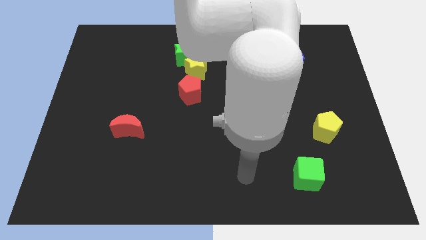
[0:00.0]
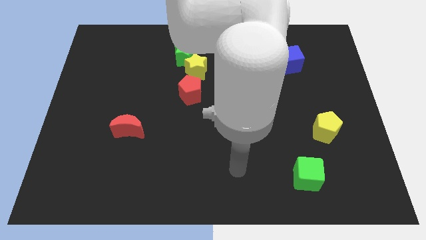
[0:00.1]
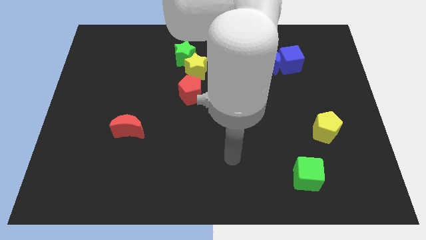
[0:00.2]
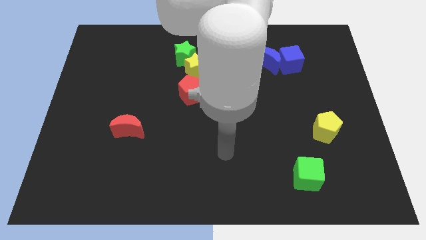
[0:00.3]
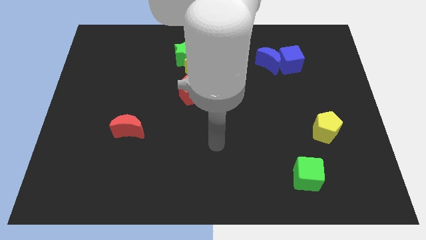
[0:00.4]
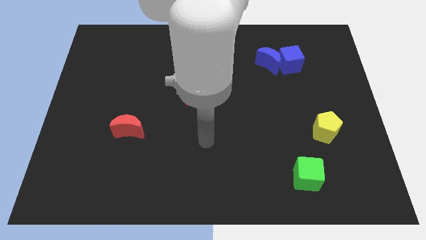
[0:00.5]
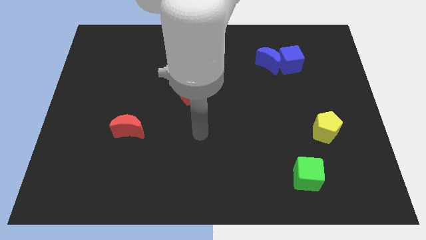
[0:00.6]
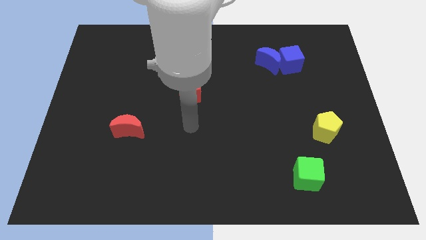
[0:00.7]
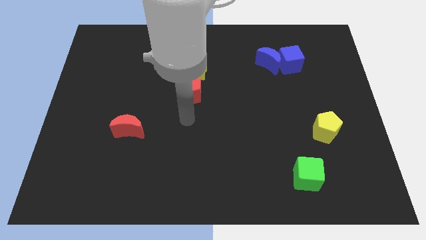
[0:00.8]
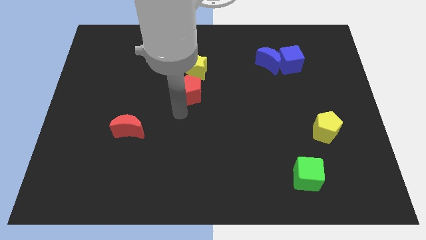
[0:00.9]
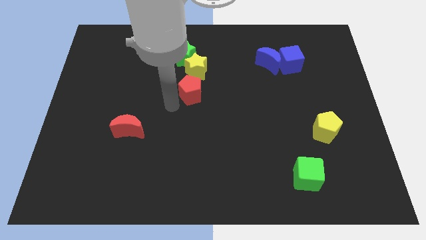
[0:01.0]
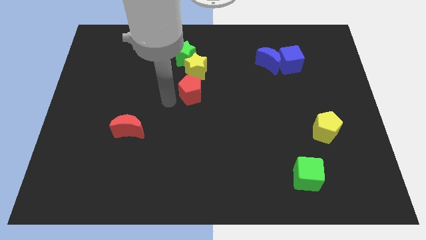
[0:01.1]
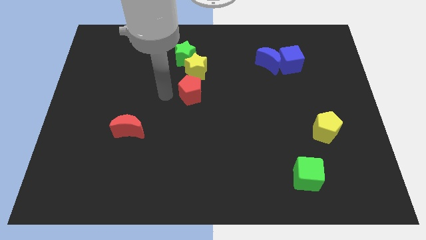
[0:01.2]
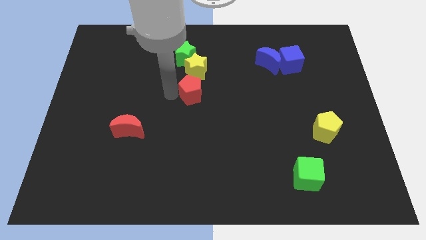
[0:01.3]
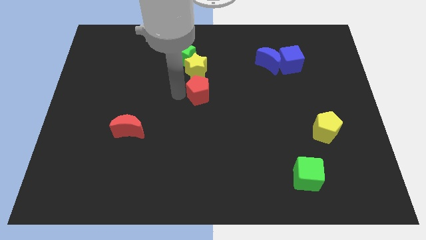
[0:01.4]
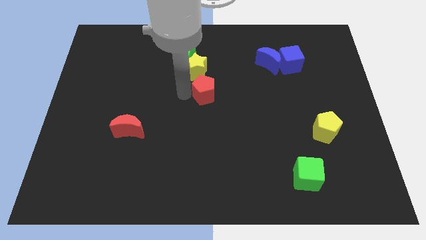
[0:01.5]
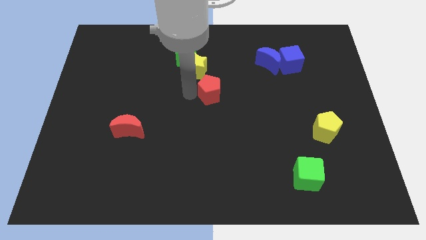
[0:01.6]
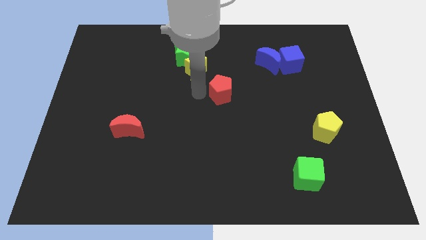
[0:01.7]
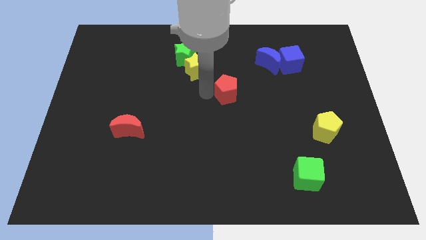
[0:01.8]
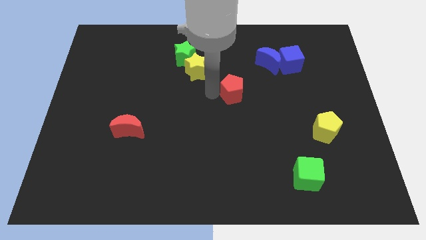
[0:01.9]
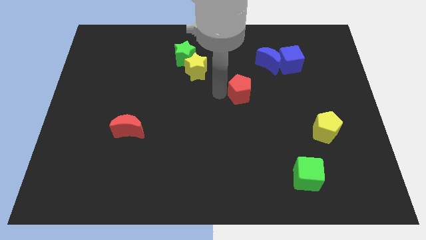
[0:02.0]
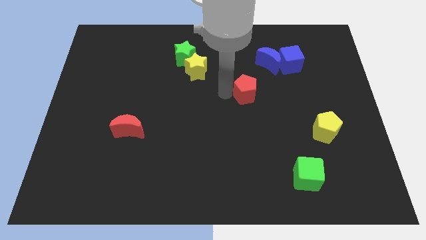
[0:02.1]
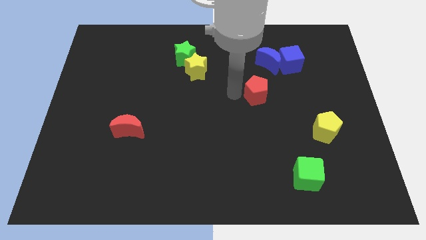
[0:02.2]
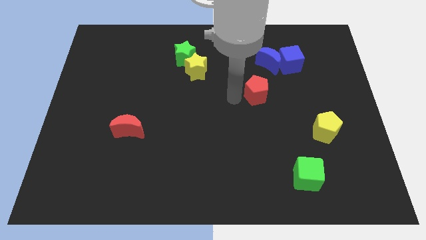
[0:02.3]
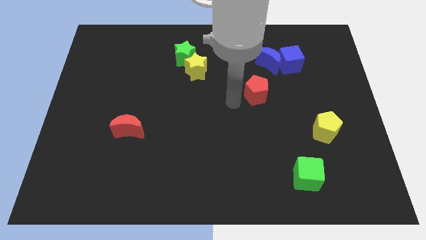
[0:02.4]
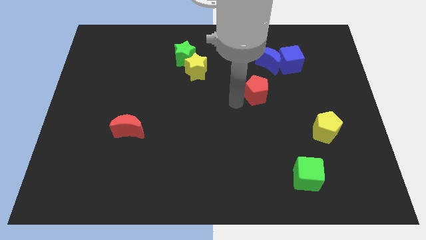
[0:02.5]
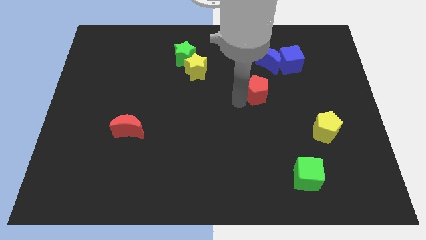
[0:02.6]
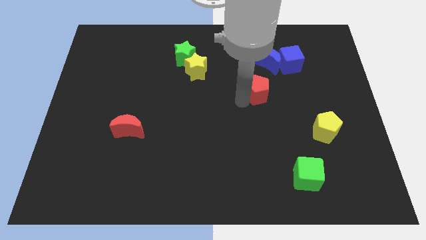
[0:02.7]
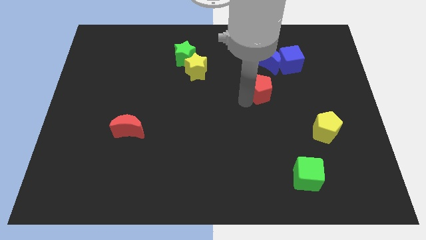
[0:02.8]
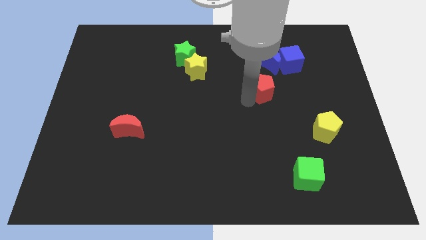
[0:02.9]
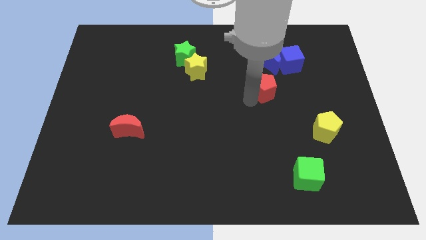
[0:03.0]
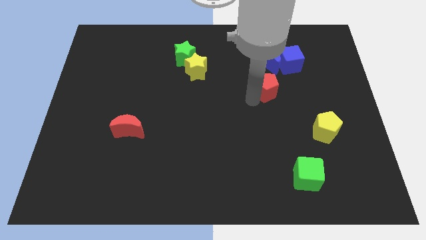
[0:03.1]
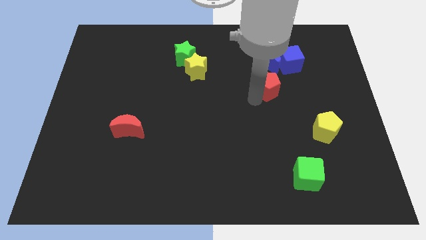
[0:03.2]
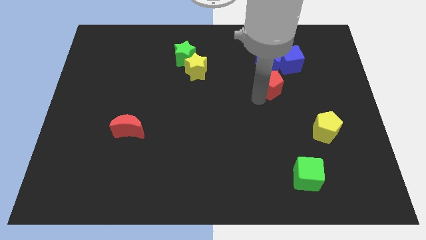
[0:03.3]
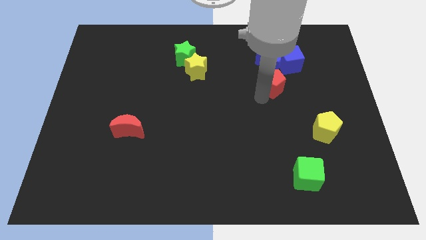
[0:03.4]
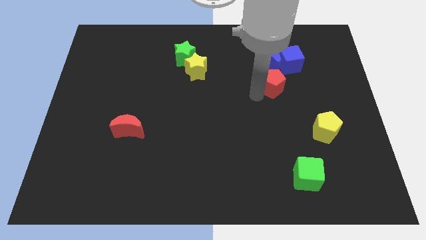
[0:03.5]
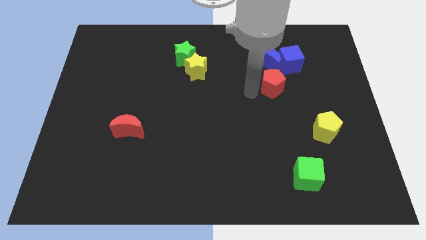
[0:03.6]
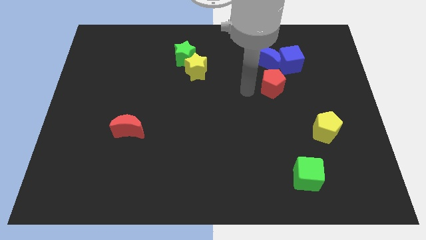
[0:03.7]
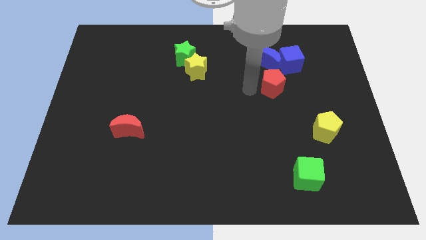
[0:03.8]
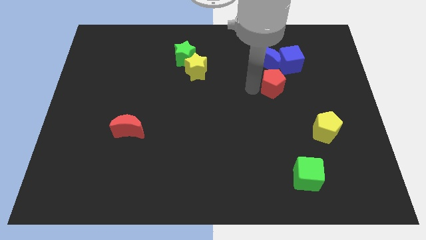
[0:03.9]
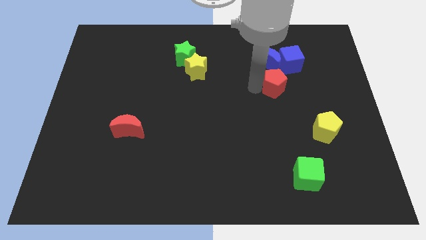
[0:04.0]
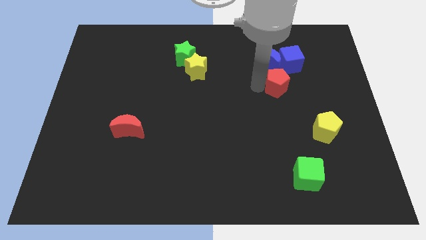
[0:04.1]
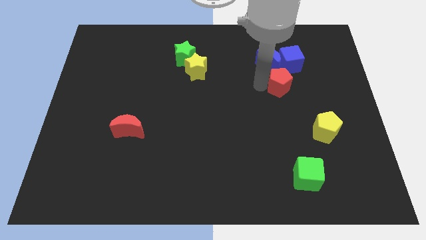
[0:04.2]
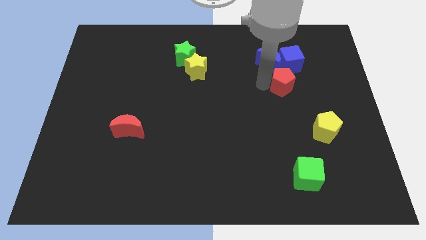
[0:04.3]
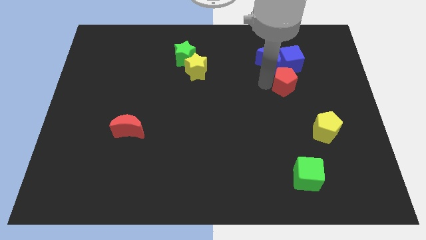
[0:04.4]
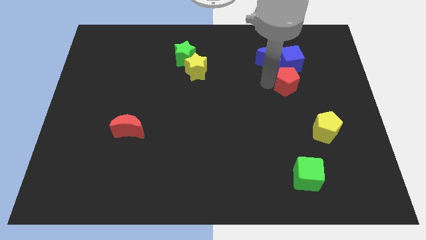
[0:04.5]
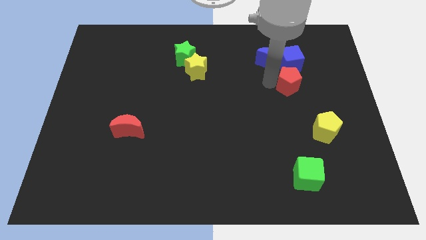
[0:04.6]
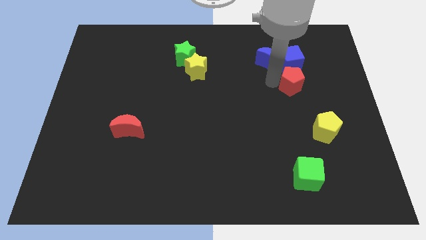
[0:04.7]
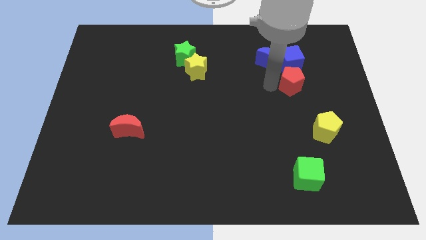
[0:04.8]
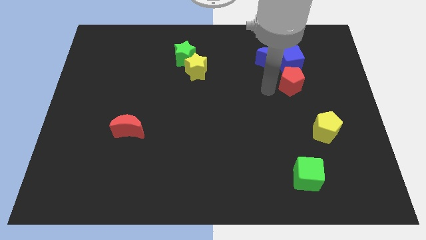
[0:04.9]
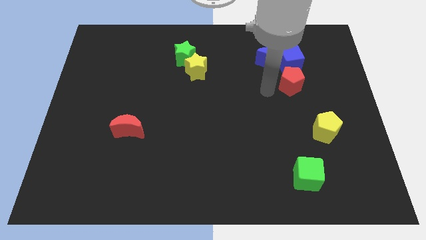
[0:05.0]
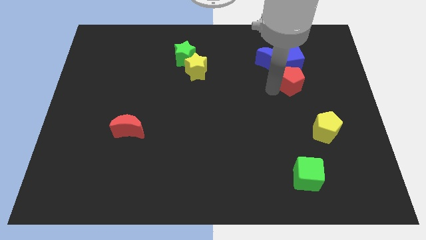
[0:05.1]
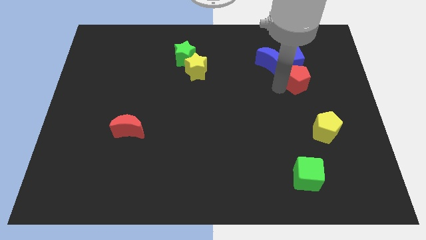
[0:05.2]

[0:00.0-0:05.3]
move the red pentagon diagonally down and to the right of the blue cube

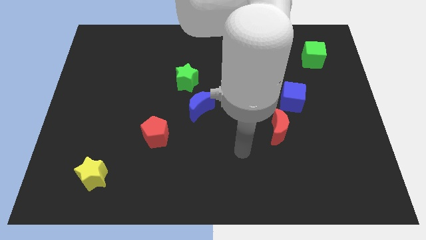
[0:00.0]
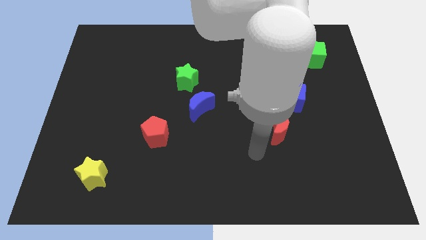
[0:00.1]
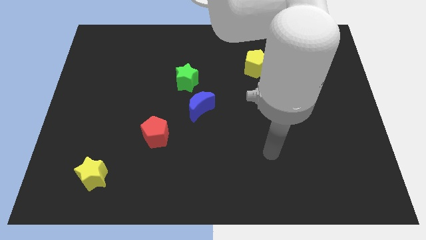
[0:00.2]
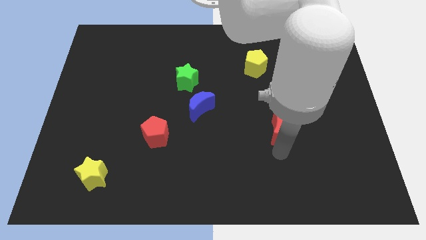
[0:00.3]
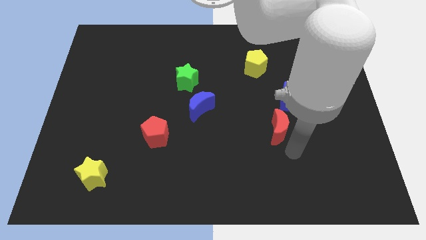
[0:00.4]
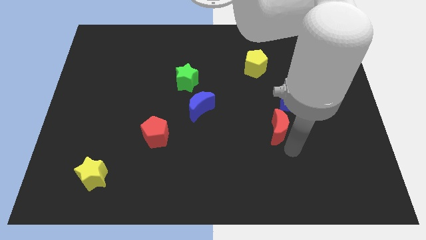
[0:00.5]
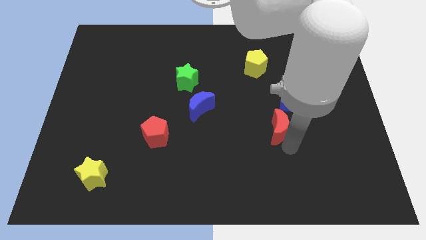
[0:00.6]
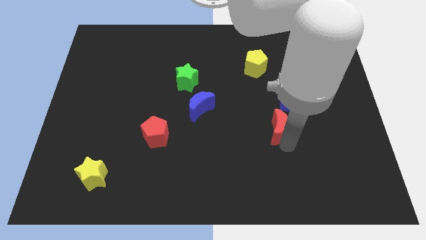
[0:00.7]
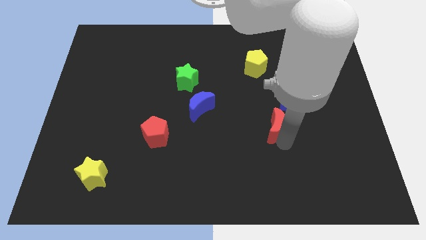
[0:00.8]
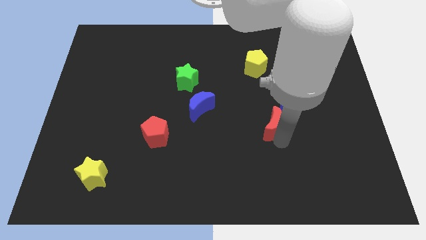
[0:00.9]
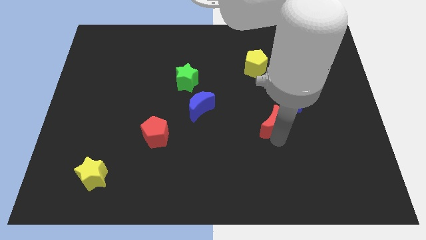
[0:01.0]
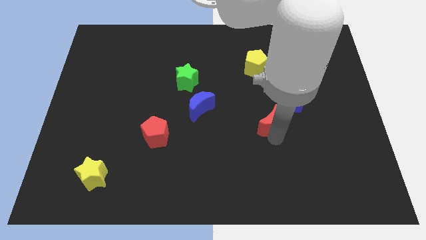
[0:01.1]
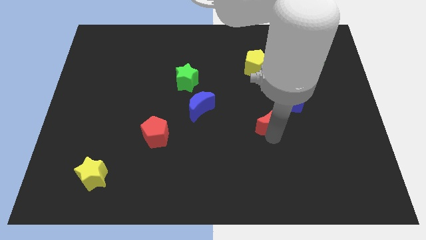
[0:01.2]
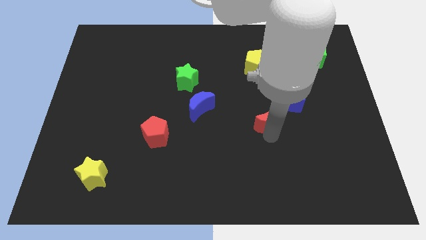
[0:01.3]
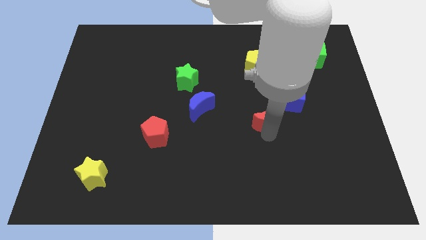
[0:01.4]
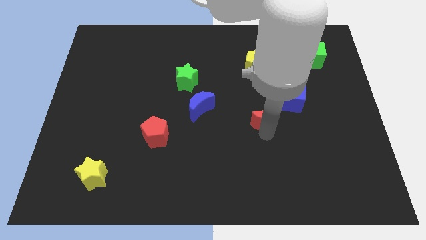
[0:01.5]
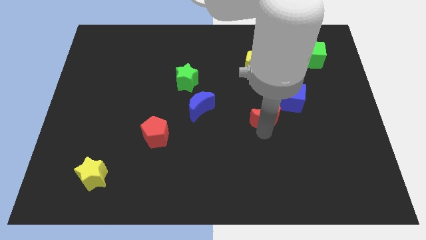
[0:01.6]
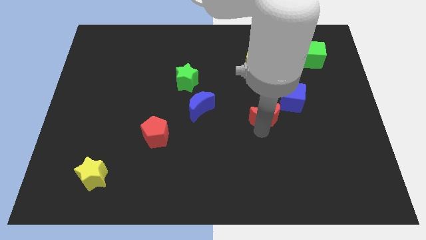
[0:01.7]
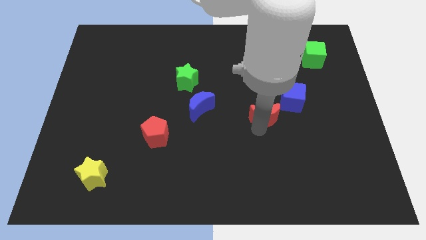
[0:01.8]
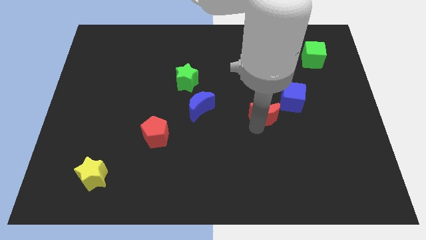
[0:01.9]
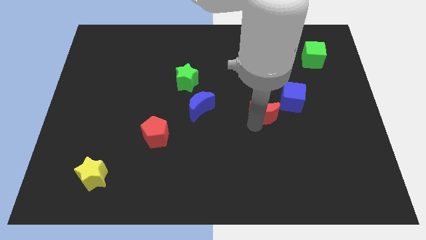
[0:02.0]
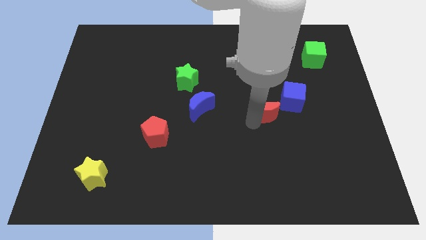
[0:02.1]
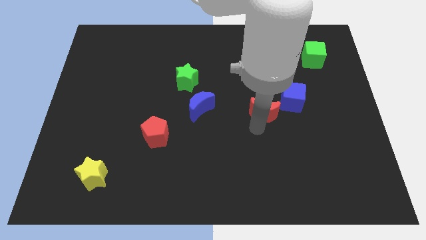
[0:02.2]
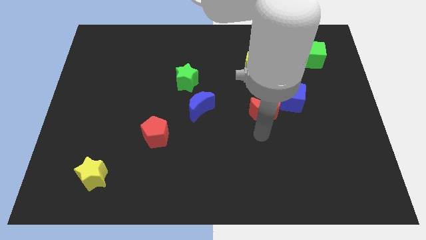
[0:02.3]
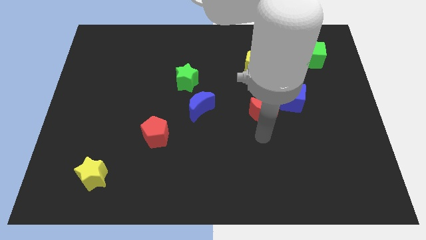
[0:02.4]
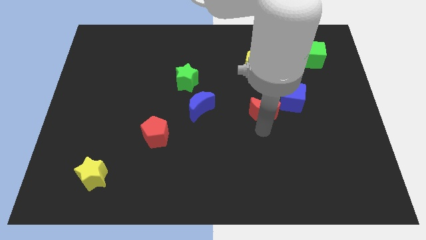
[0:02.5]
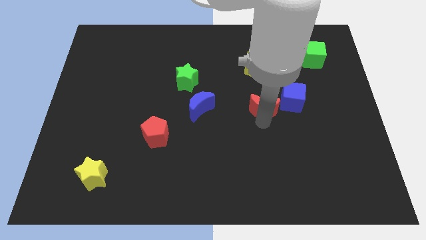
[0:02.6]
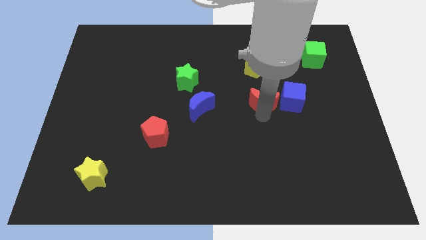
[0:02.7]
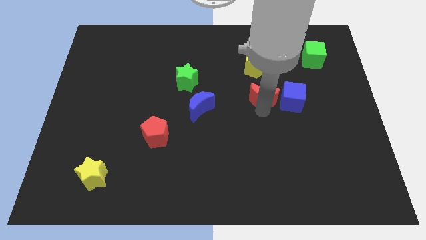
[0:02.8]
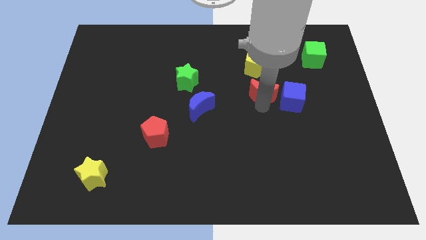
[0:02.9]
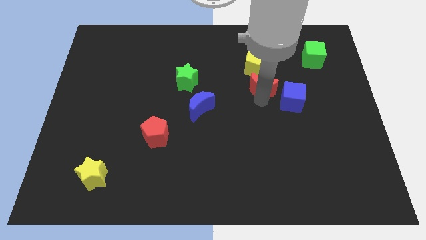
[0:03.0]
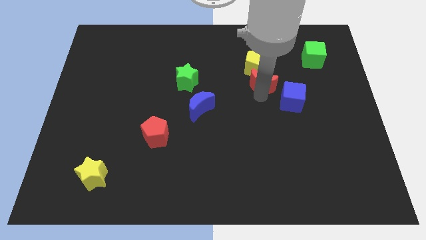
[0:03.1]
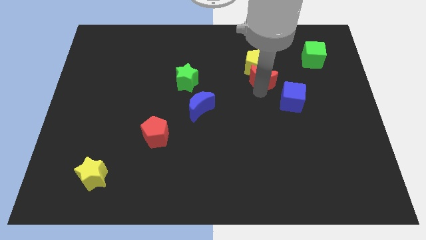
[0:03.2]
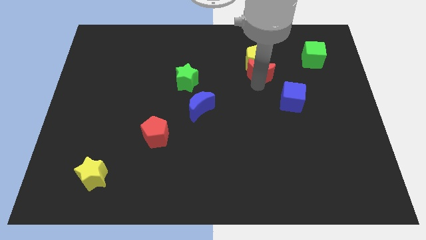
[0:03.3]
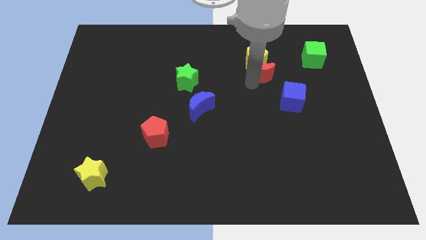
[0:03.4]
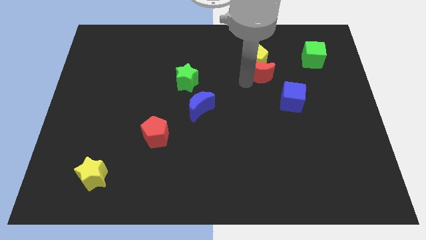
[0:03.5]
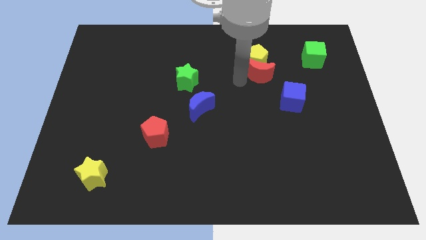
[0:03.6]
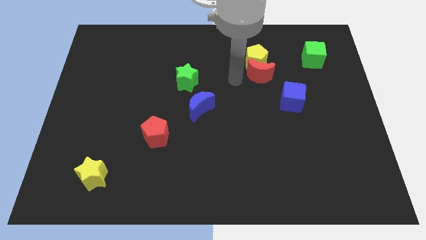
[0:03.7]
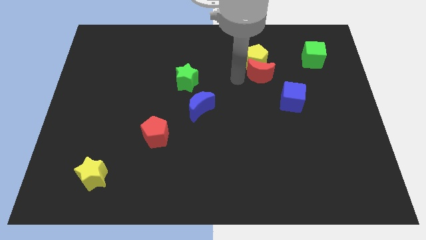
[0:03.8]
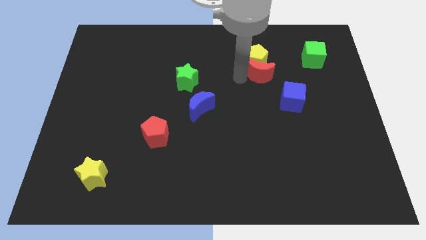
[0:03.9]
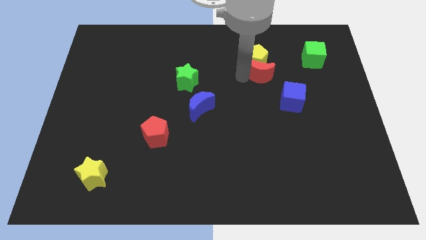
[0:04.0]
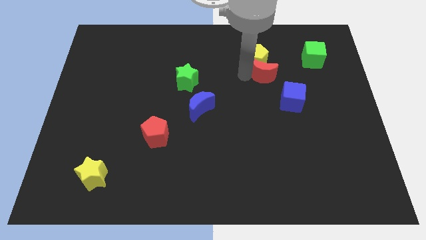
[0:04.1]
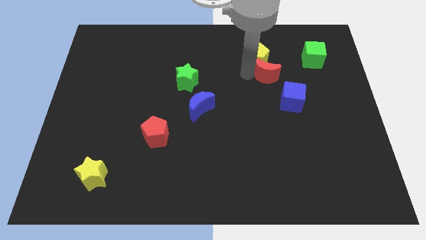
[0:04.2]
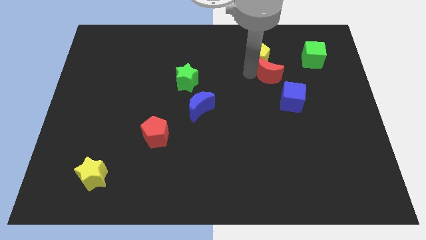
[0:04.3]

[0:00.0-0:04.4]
slide the red moon above the blue cube
